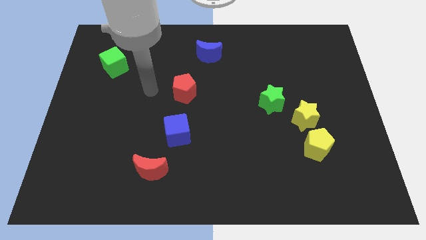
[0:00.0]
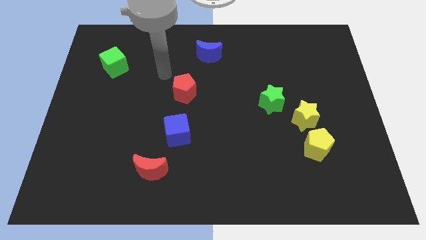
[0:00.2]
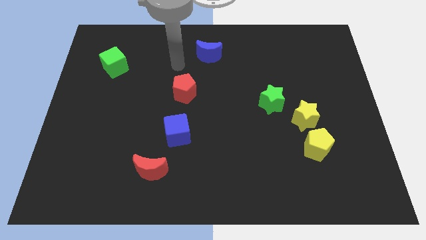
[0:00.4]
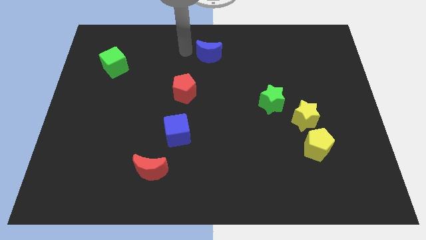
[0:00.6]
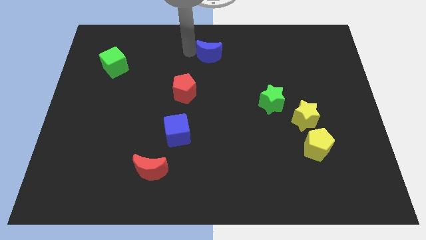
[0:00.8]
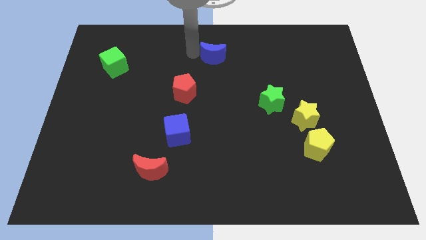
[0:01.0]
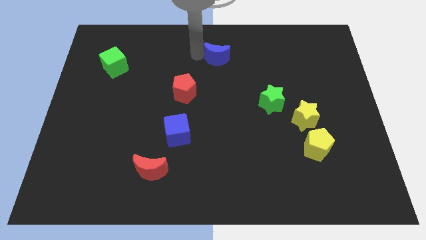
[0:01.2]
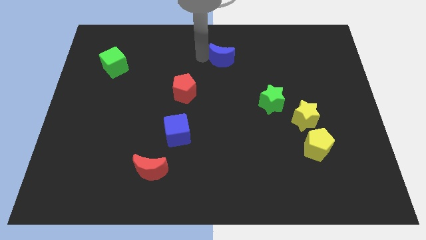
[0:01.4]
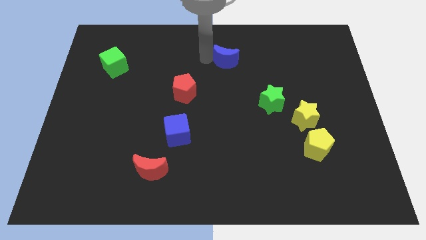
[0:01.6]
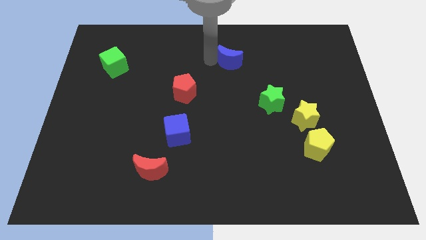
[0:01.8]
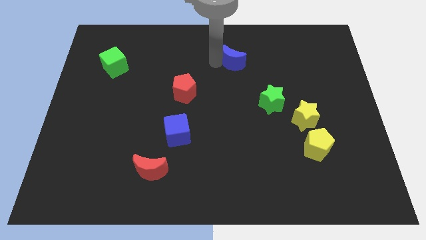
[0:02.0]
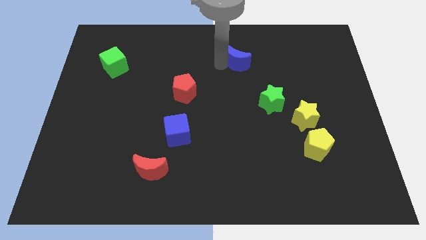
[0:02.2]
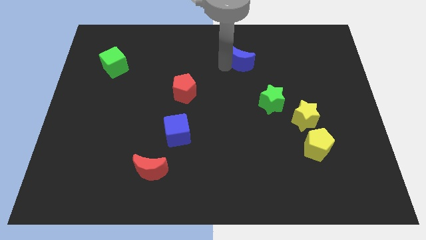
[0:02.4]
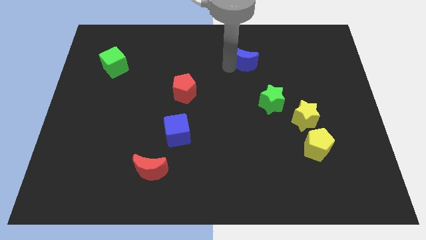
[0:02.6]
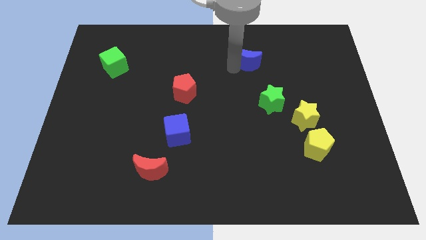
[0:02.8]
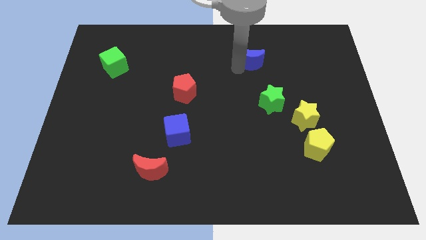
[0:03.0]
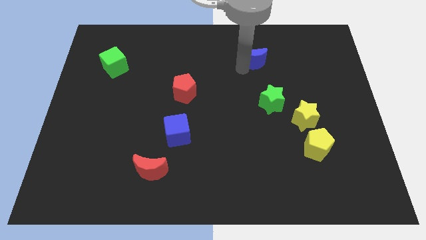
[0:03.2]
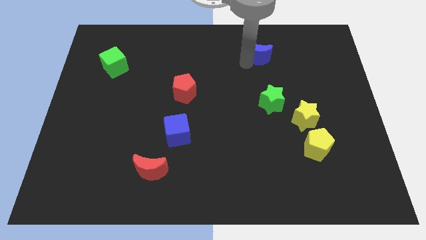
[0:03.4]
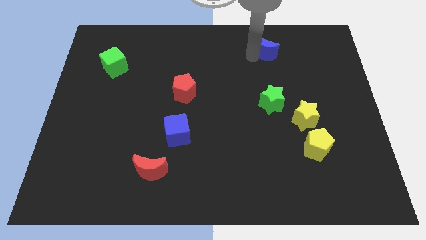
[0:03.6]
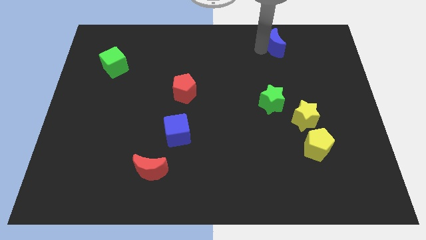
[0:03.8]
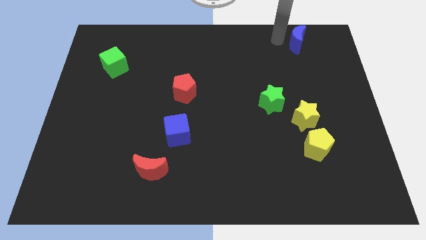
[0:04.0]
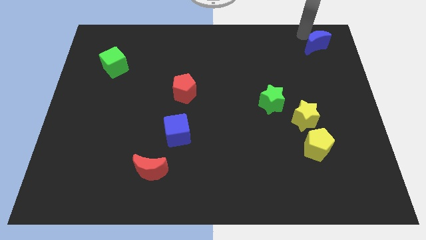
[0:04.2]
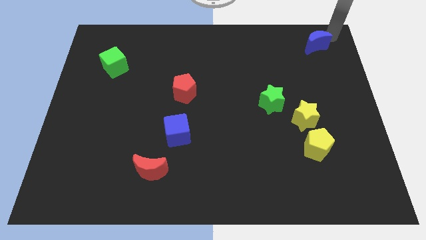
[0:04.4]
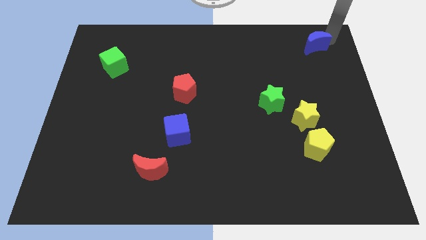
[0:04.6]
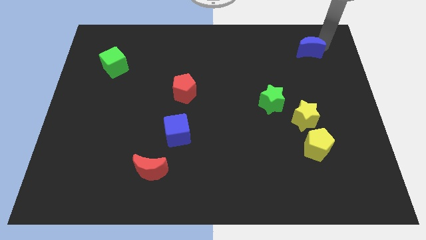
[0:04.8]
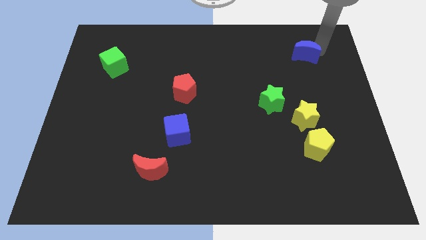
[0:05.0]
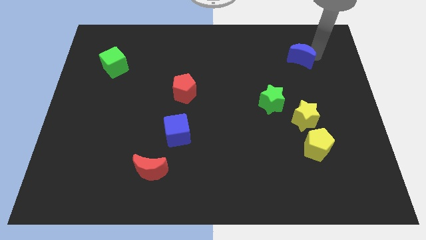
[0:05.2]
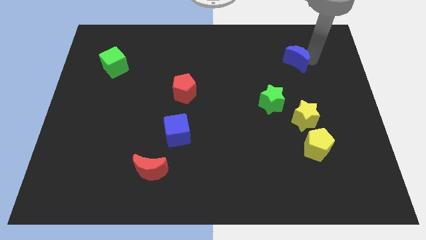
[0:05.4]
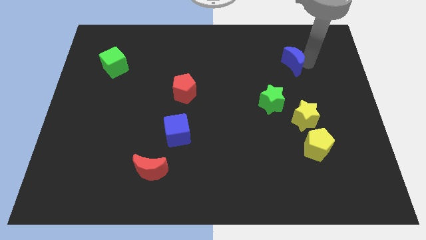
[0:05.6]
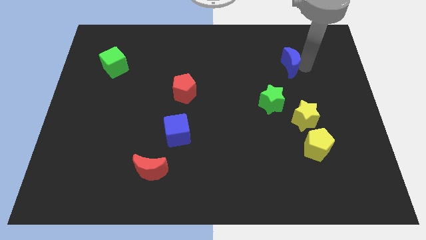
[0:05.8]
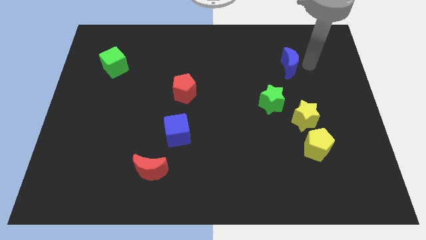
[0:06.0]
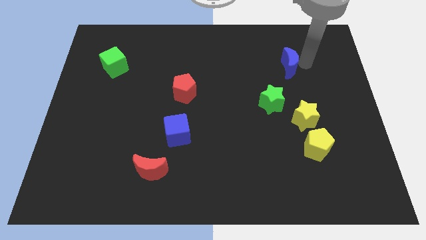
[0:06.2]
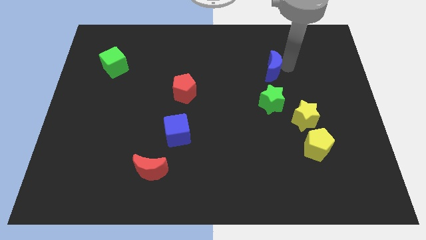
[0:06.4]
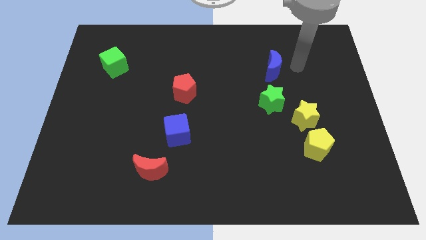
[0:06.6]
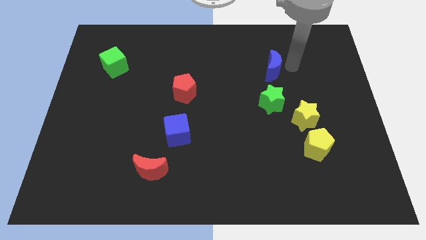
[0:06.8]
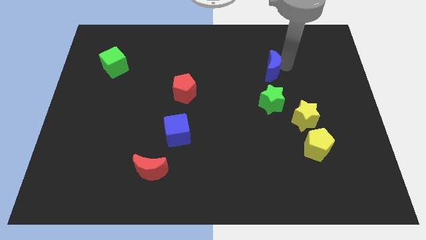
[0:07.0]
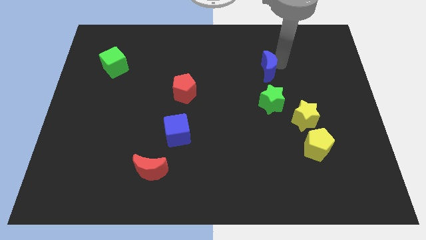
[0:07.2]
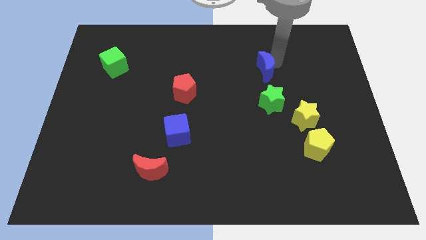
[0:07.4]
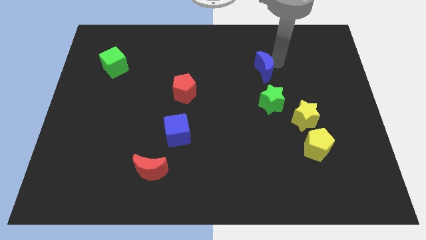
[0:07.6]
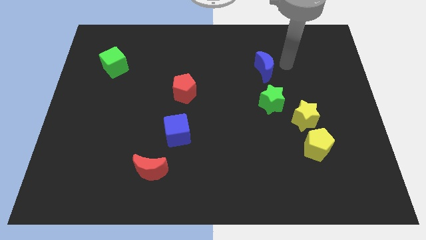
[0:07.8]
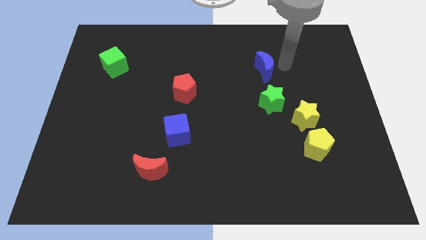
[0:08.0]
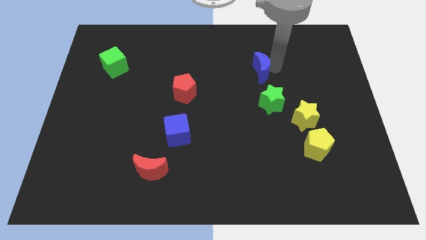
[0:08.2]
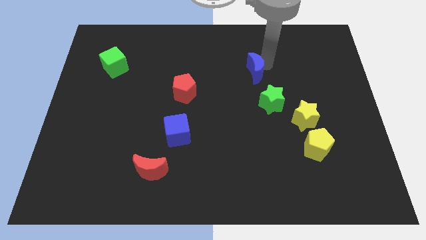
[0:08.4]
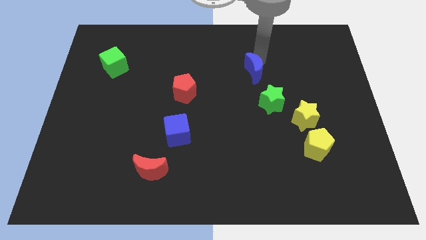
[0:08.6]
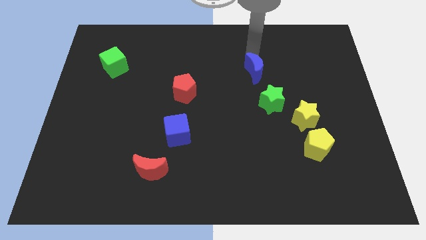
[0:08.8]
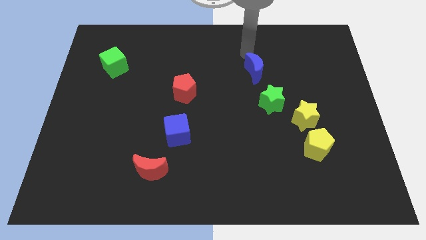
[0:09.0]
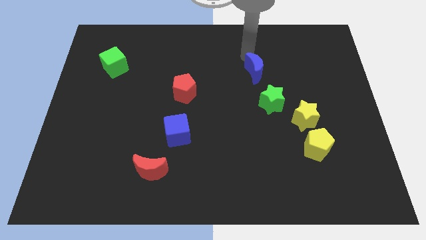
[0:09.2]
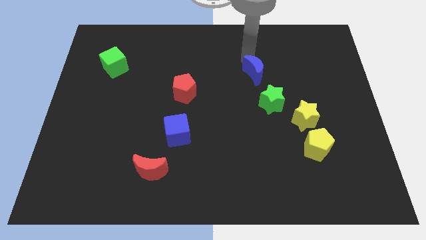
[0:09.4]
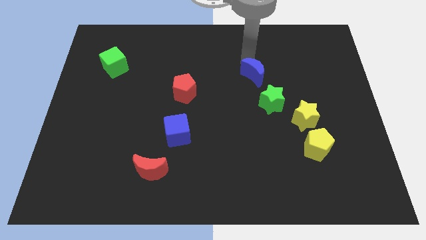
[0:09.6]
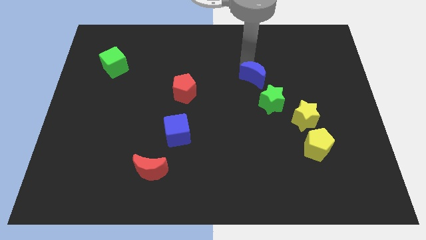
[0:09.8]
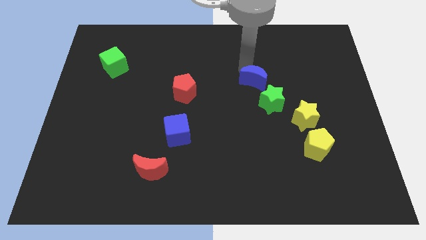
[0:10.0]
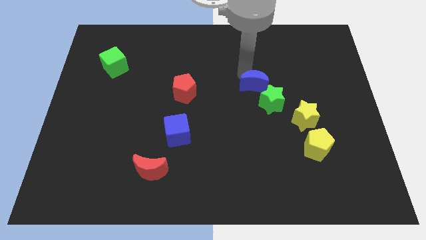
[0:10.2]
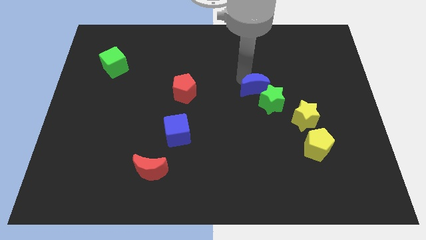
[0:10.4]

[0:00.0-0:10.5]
put the blue moon next to the green star

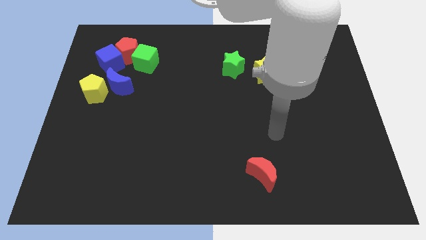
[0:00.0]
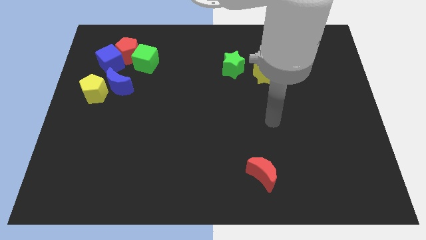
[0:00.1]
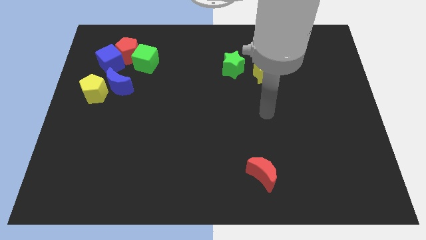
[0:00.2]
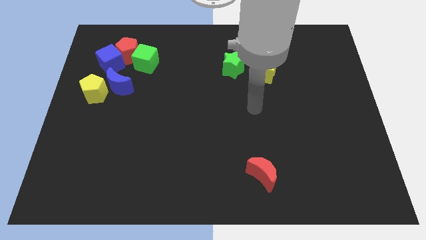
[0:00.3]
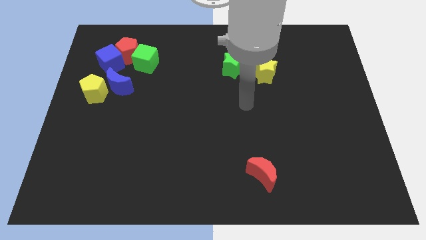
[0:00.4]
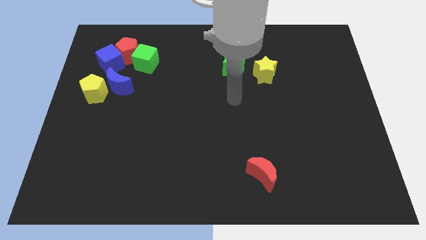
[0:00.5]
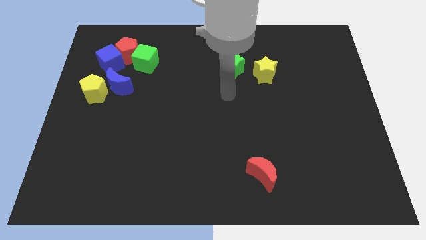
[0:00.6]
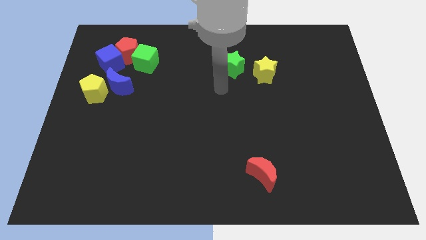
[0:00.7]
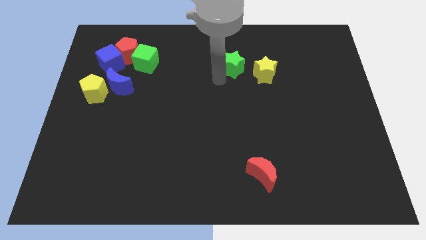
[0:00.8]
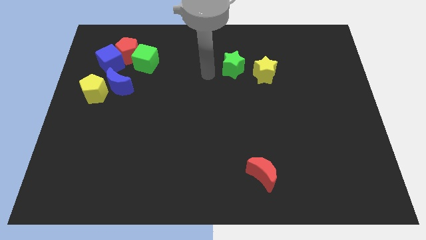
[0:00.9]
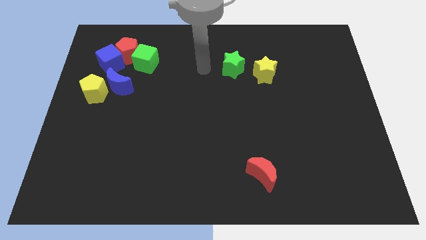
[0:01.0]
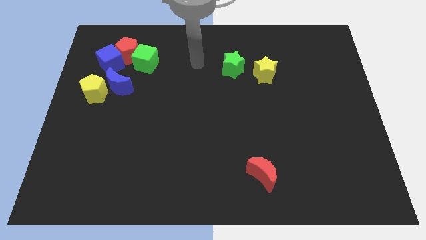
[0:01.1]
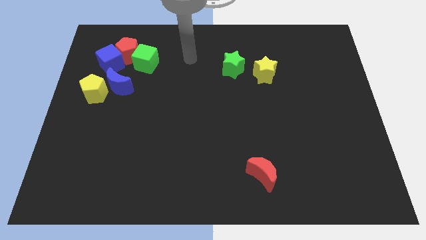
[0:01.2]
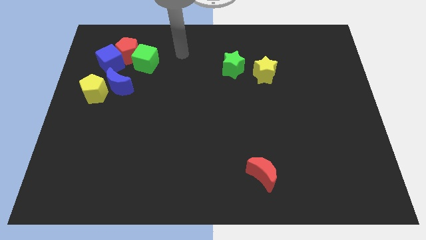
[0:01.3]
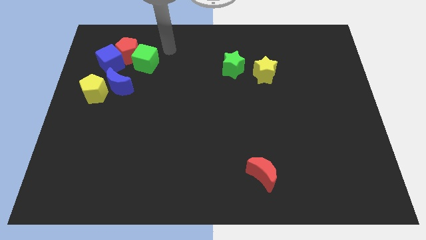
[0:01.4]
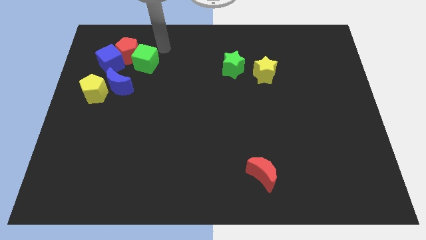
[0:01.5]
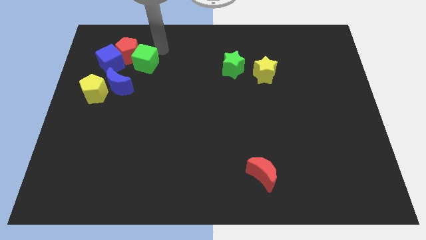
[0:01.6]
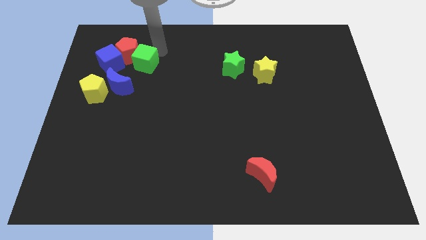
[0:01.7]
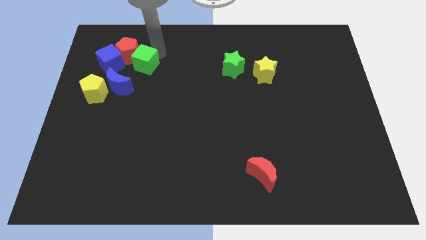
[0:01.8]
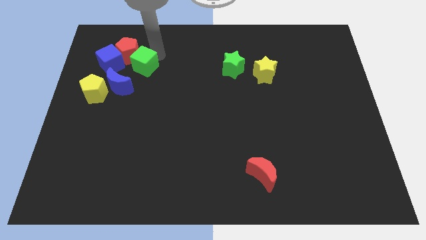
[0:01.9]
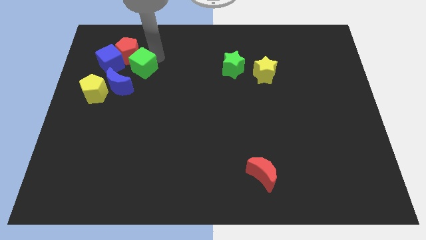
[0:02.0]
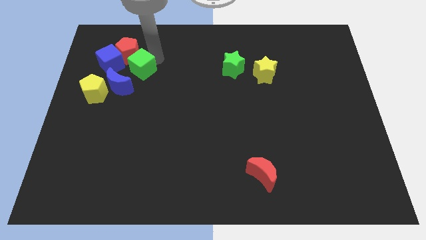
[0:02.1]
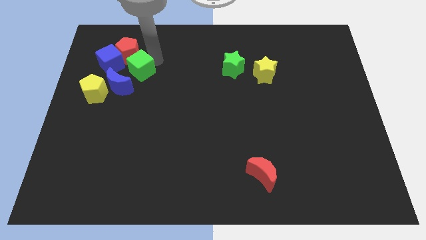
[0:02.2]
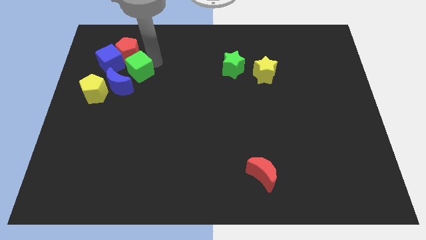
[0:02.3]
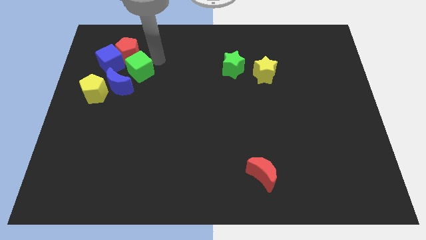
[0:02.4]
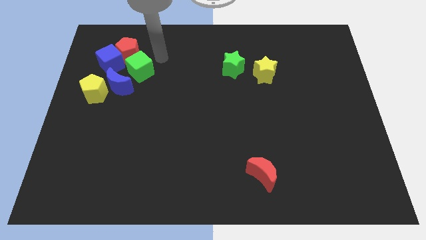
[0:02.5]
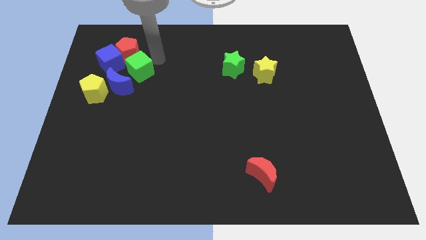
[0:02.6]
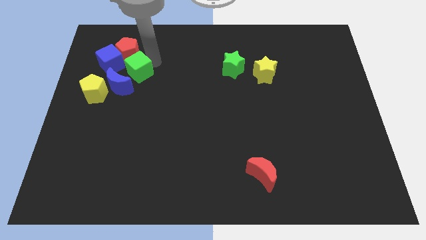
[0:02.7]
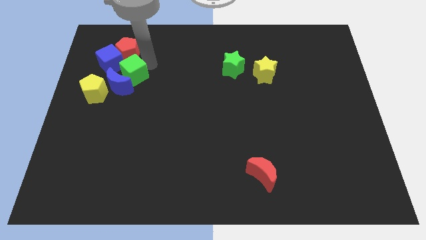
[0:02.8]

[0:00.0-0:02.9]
push the green cube to the blue moon
